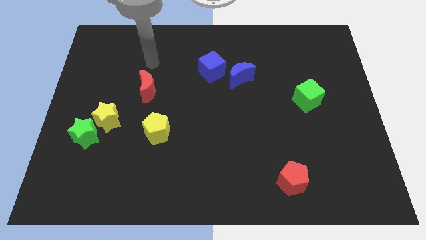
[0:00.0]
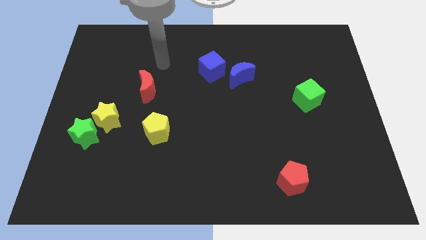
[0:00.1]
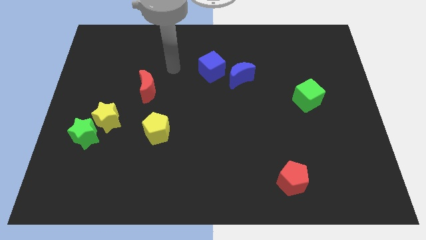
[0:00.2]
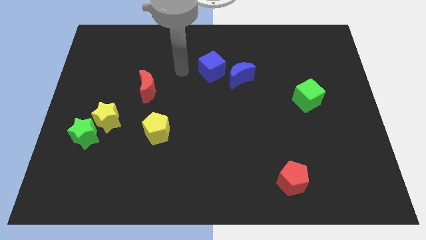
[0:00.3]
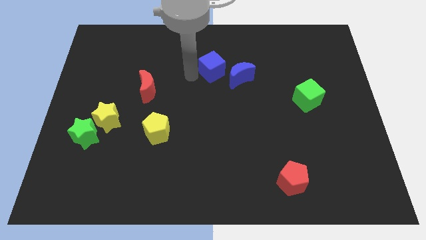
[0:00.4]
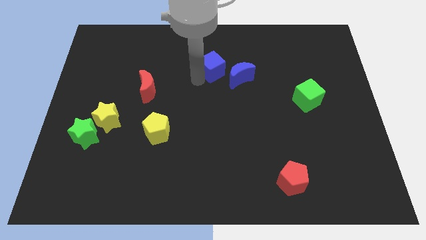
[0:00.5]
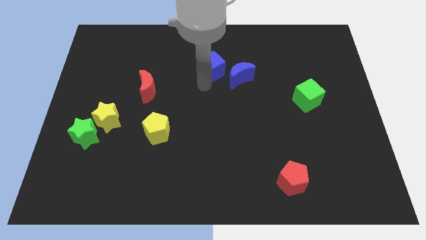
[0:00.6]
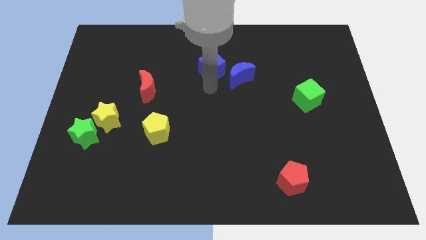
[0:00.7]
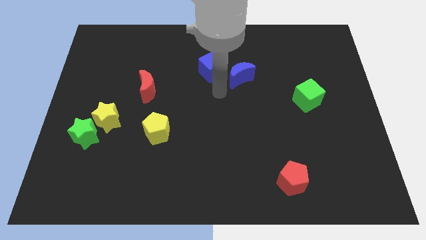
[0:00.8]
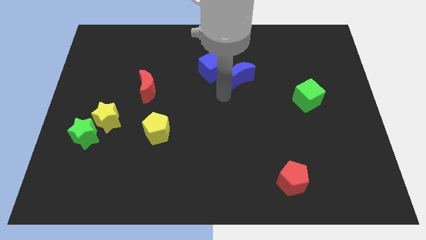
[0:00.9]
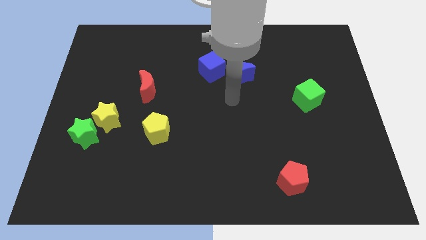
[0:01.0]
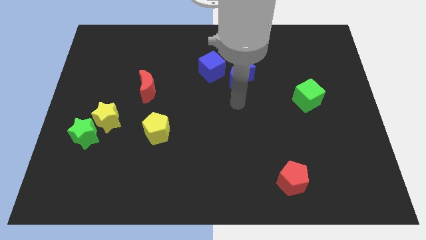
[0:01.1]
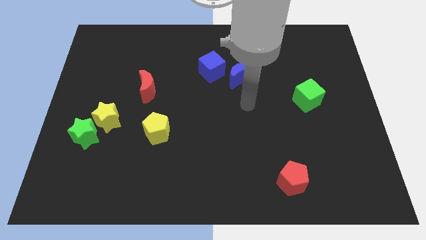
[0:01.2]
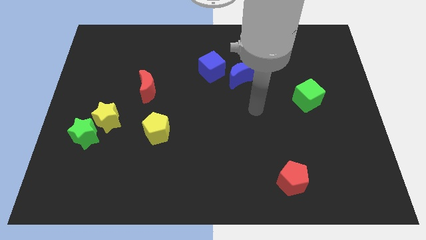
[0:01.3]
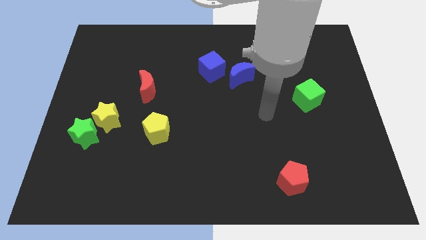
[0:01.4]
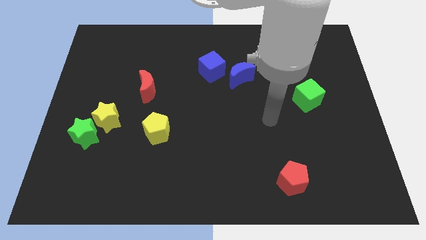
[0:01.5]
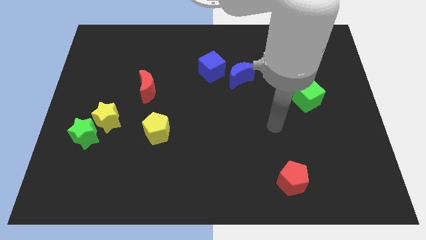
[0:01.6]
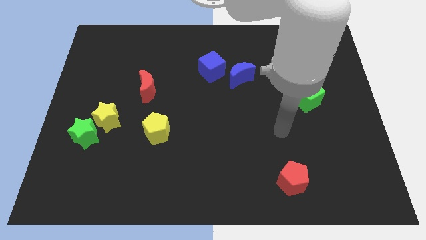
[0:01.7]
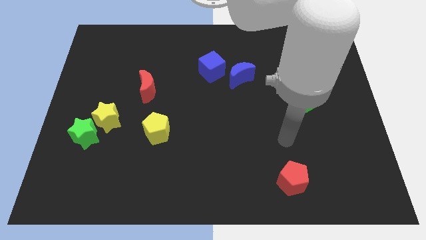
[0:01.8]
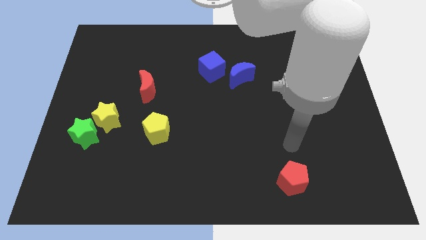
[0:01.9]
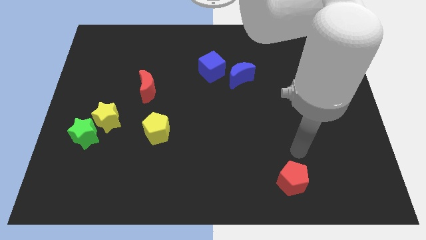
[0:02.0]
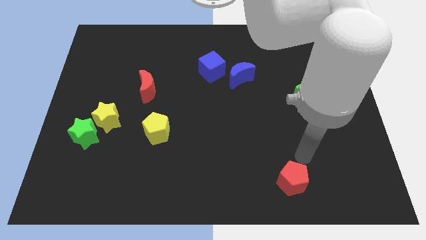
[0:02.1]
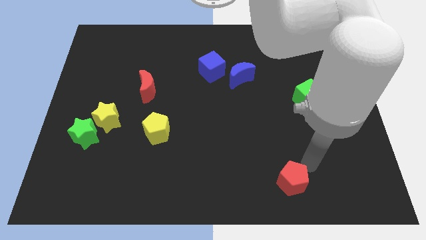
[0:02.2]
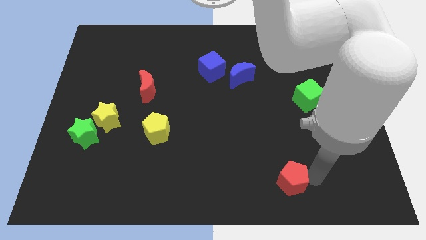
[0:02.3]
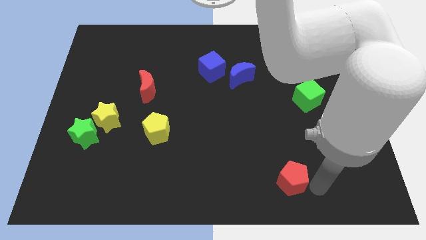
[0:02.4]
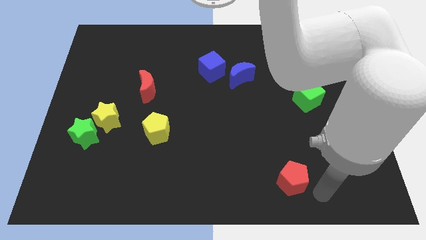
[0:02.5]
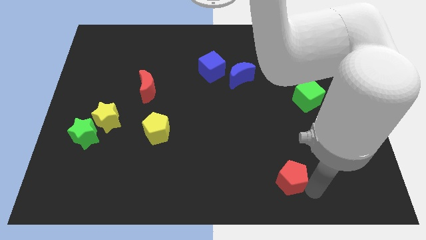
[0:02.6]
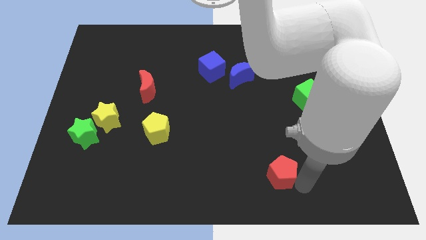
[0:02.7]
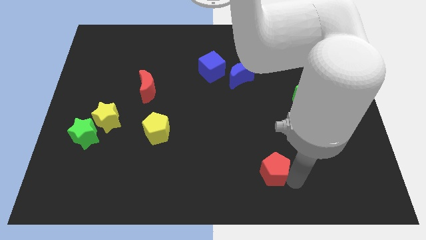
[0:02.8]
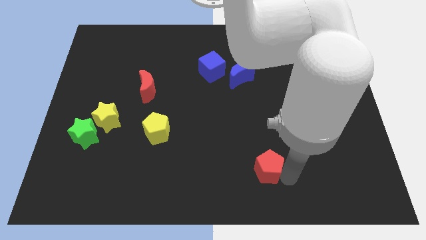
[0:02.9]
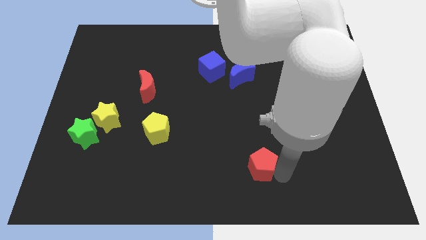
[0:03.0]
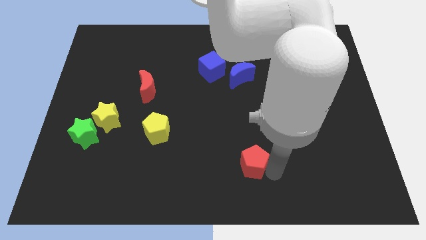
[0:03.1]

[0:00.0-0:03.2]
push the red pentagon diagonally upwards and left a bit

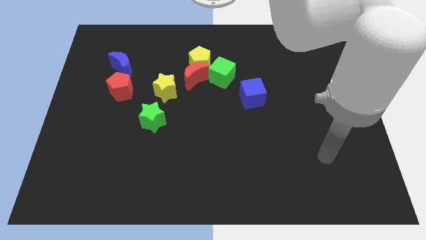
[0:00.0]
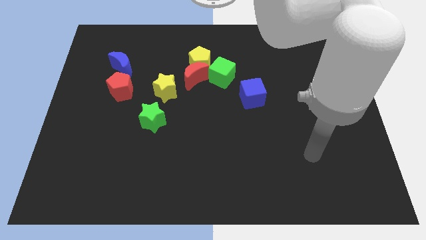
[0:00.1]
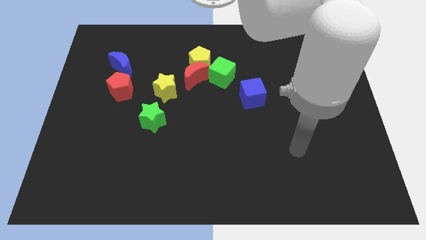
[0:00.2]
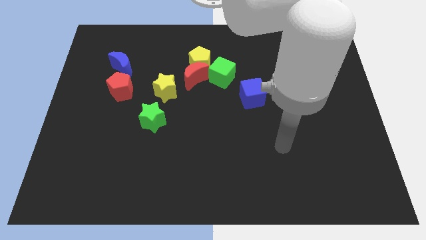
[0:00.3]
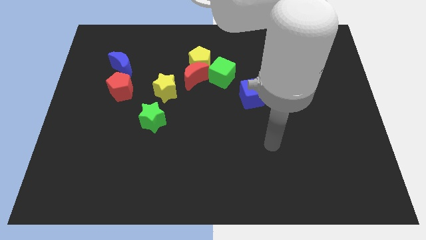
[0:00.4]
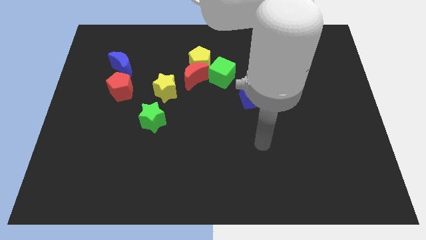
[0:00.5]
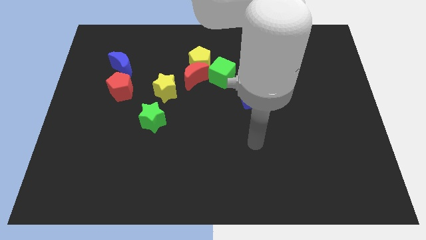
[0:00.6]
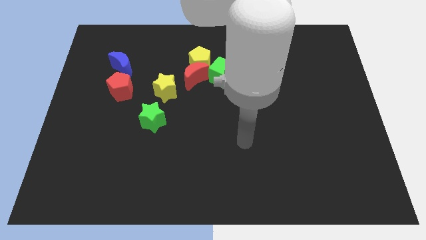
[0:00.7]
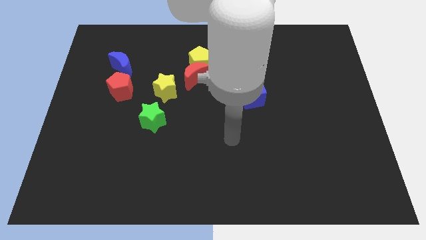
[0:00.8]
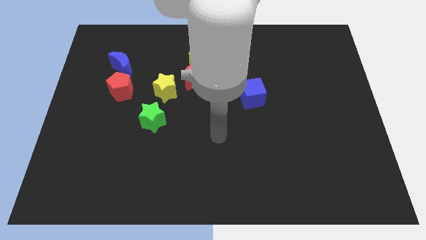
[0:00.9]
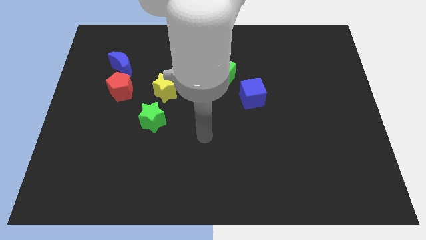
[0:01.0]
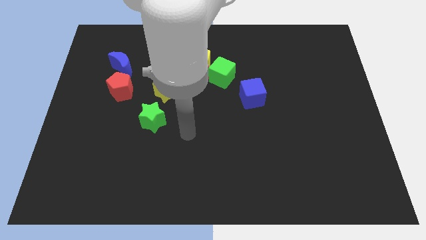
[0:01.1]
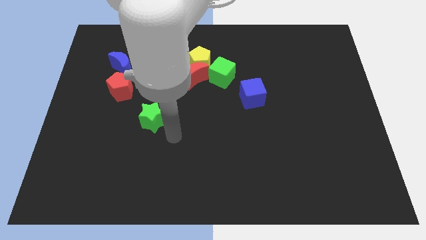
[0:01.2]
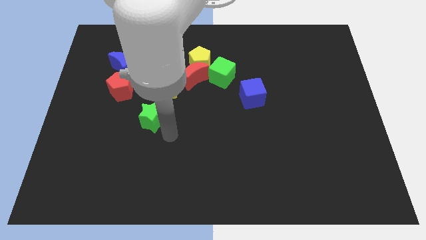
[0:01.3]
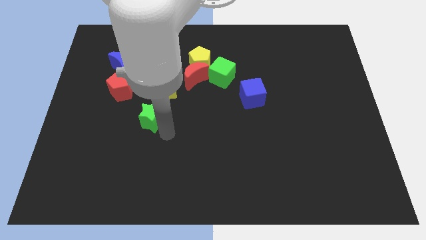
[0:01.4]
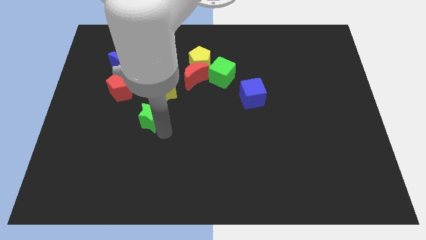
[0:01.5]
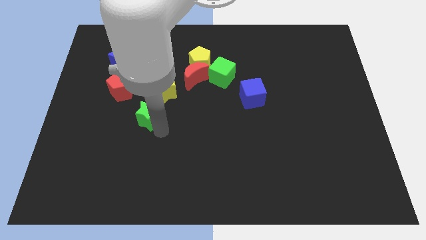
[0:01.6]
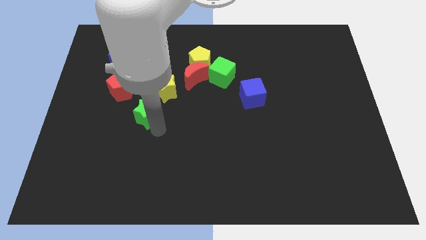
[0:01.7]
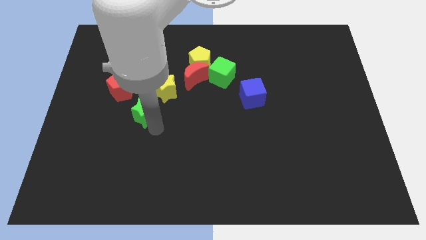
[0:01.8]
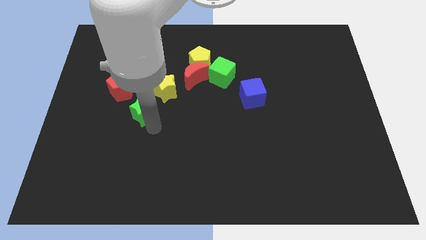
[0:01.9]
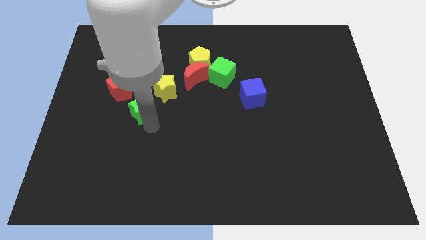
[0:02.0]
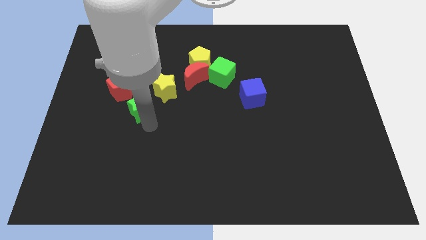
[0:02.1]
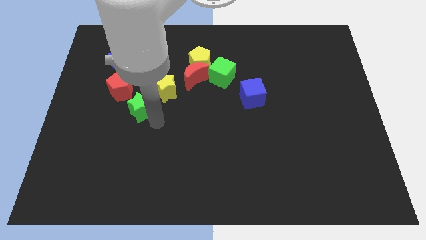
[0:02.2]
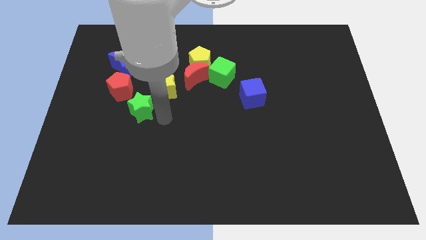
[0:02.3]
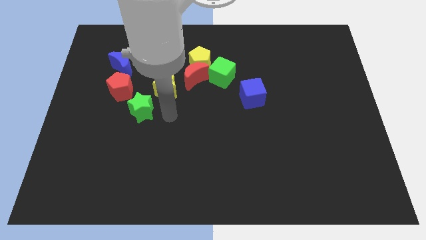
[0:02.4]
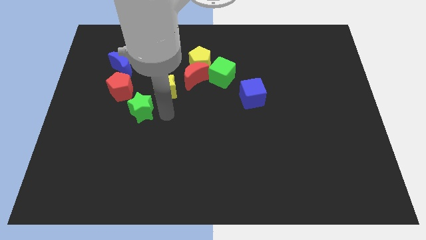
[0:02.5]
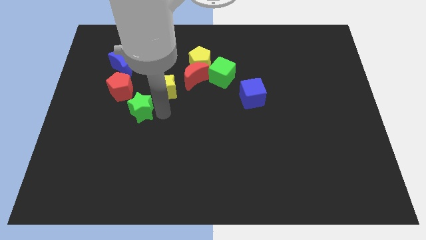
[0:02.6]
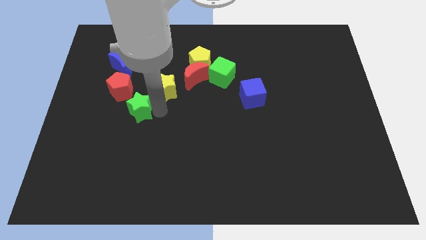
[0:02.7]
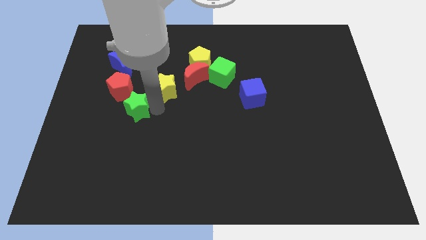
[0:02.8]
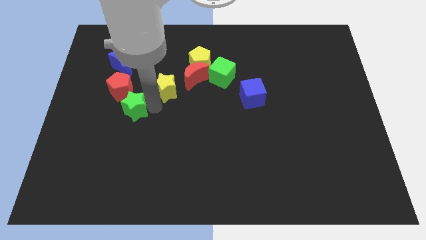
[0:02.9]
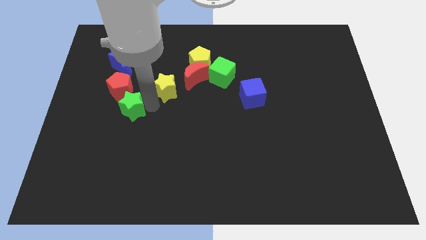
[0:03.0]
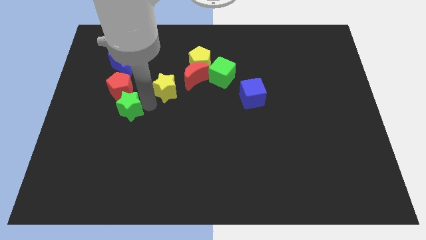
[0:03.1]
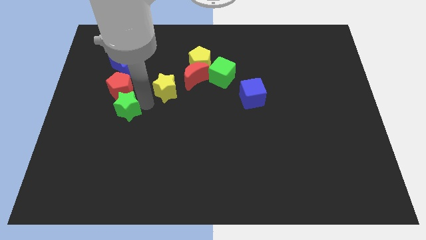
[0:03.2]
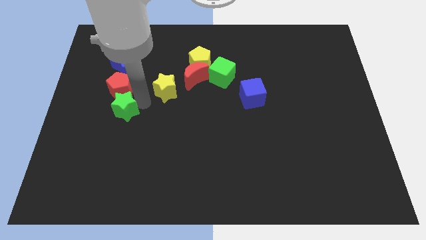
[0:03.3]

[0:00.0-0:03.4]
slightly slide the green star upwards and left diagonally

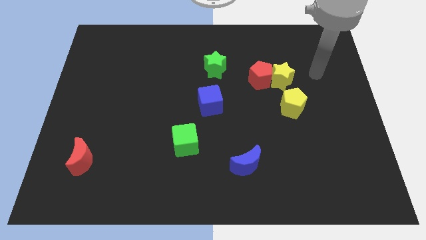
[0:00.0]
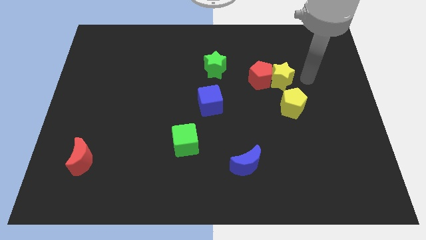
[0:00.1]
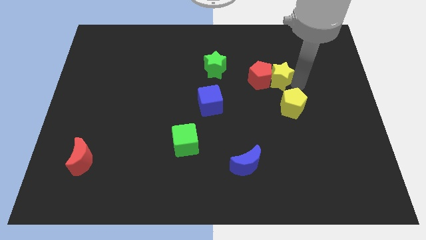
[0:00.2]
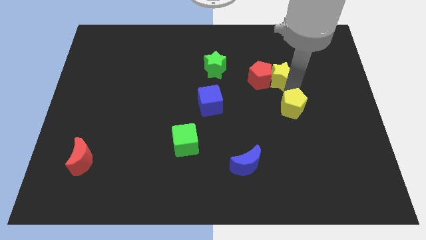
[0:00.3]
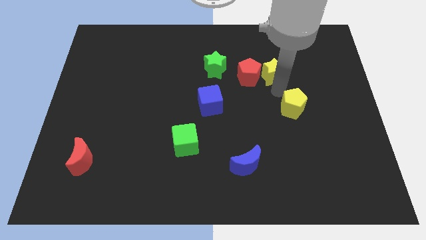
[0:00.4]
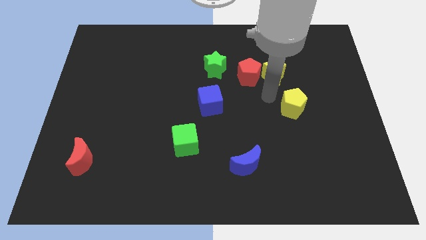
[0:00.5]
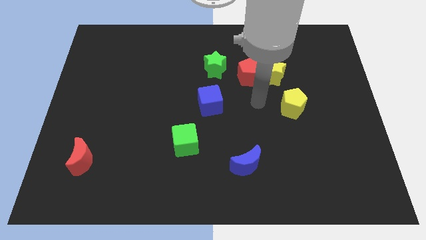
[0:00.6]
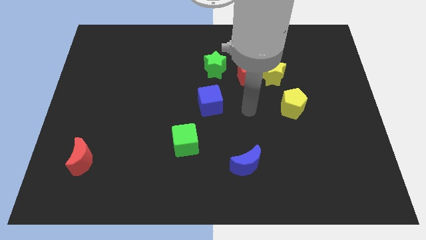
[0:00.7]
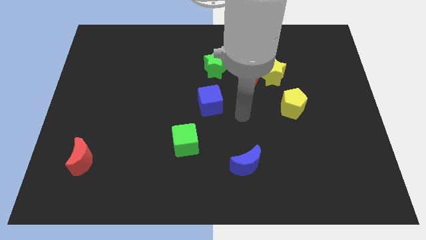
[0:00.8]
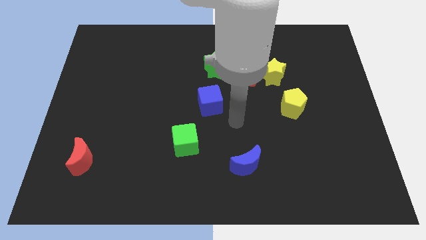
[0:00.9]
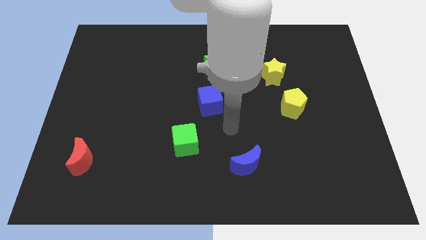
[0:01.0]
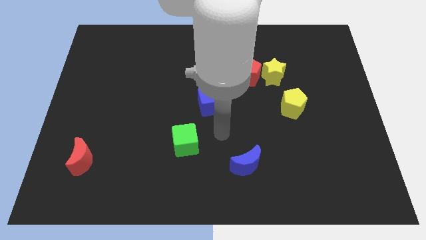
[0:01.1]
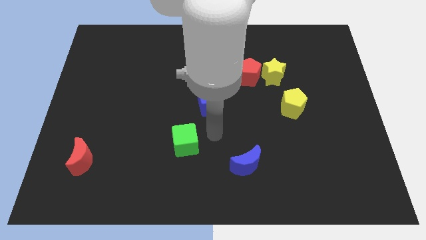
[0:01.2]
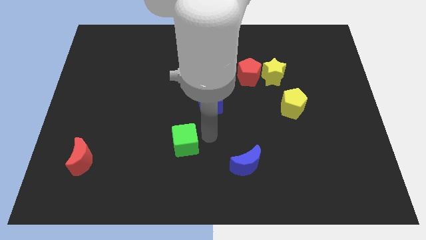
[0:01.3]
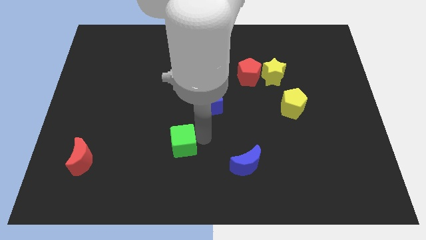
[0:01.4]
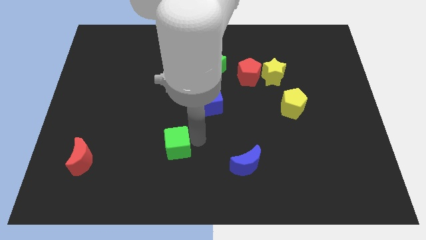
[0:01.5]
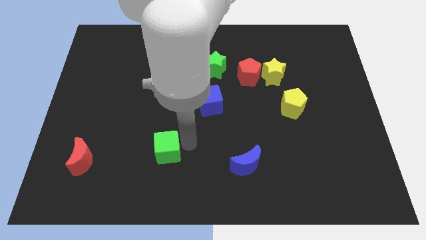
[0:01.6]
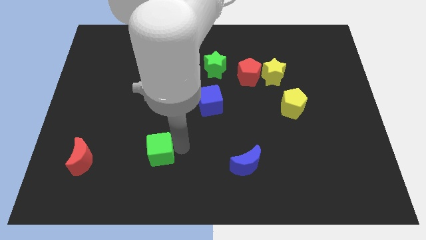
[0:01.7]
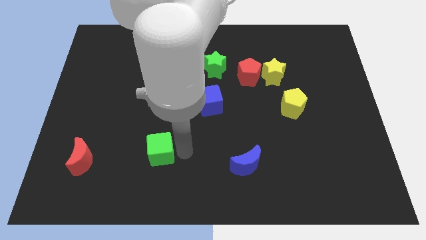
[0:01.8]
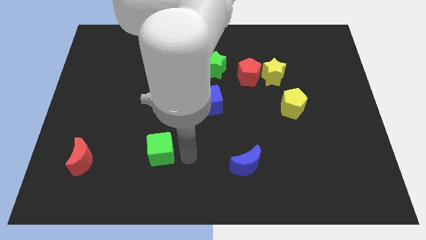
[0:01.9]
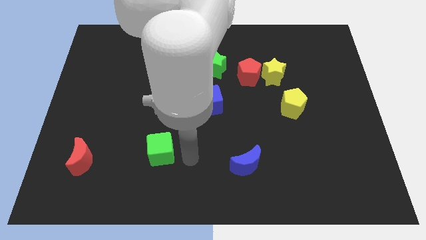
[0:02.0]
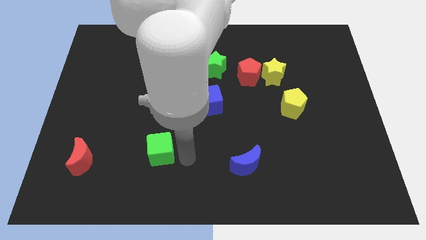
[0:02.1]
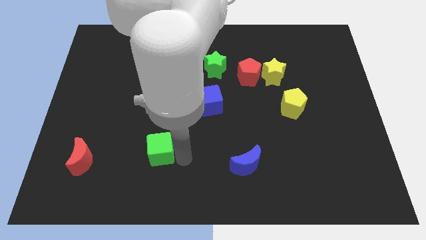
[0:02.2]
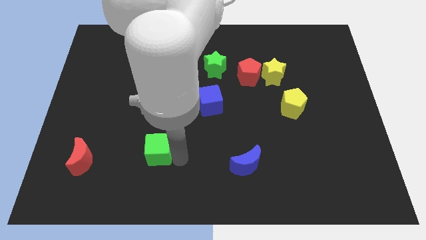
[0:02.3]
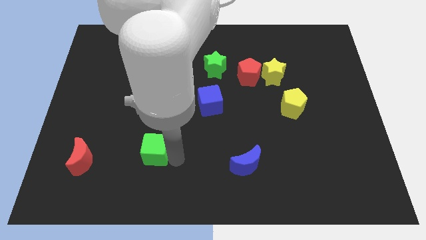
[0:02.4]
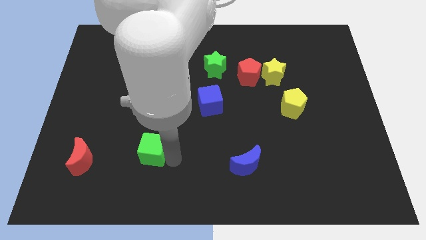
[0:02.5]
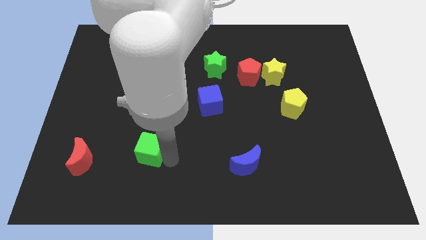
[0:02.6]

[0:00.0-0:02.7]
push the green cube somewhat to the left
